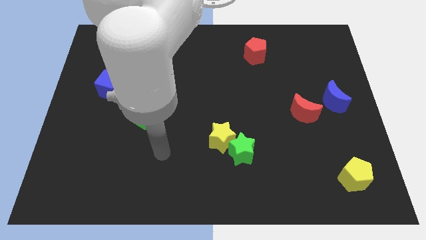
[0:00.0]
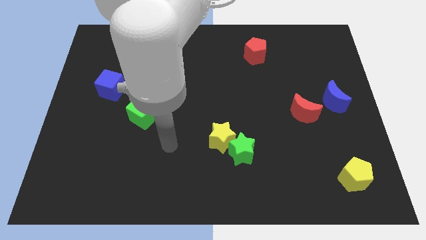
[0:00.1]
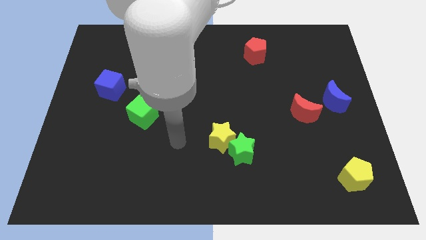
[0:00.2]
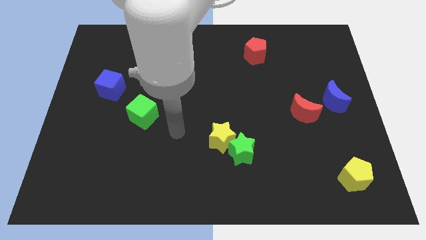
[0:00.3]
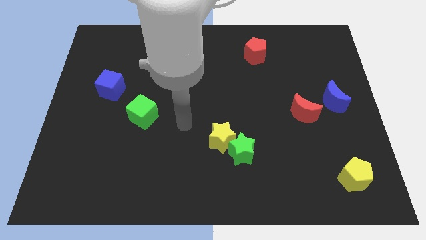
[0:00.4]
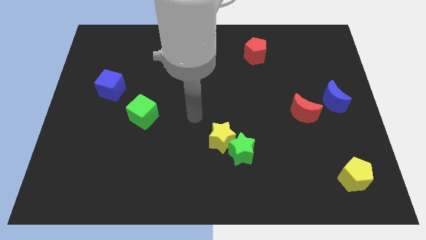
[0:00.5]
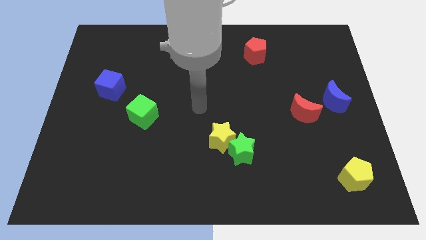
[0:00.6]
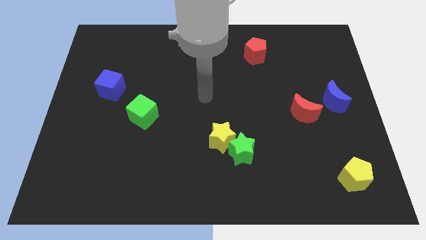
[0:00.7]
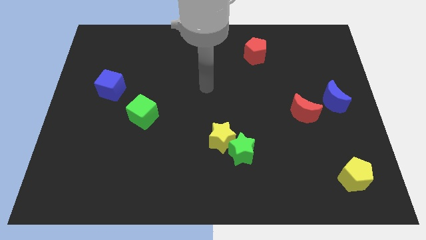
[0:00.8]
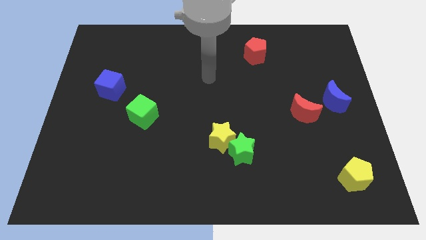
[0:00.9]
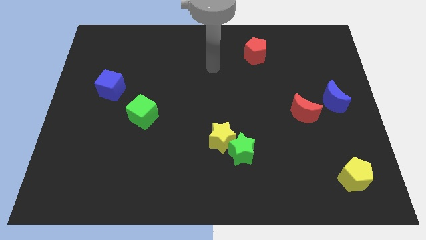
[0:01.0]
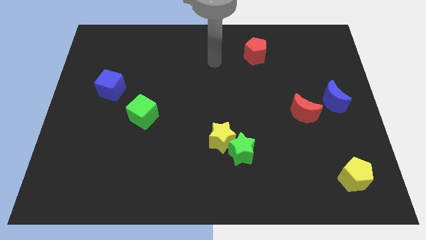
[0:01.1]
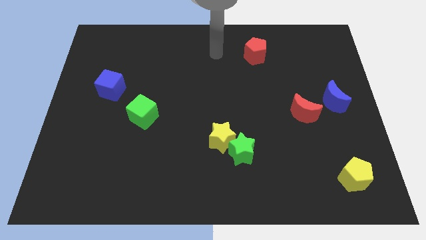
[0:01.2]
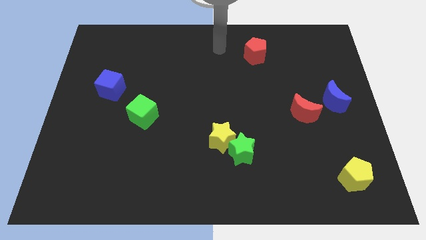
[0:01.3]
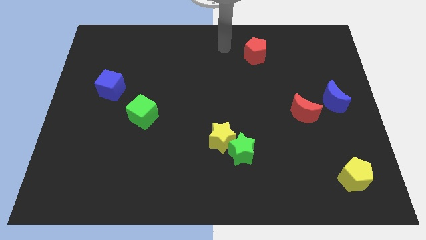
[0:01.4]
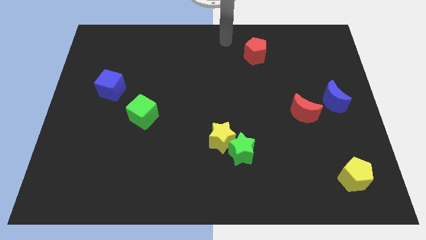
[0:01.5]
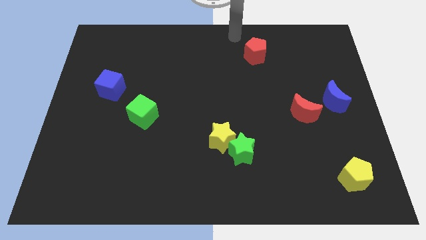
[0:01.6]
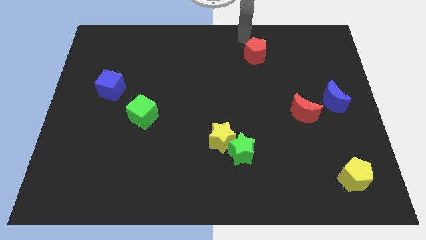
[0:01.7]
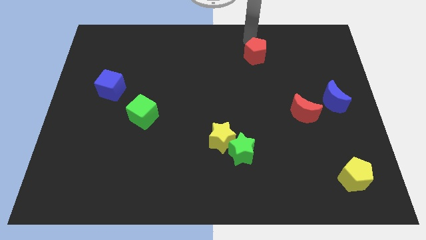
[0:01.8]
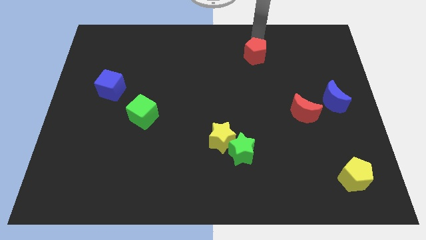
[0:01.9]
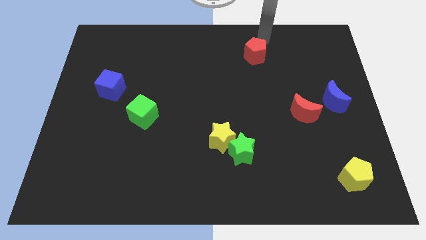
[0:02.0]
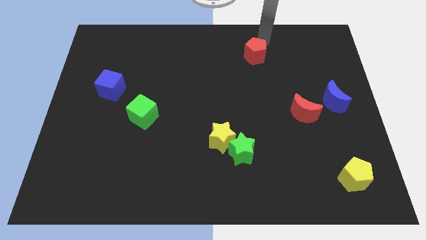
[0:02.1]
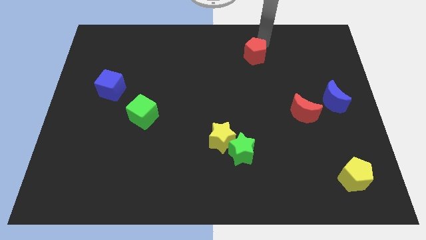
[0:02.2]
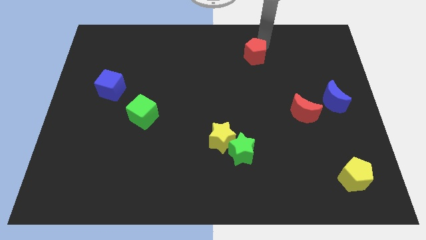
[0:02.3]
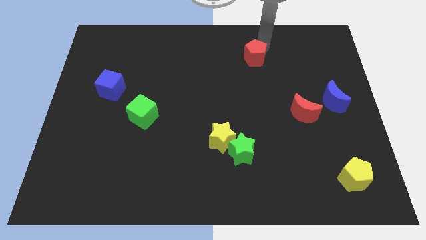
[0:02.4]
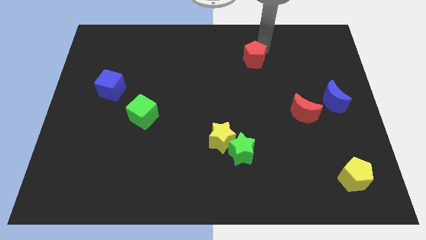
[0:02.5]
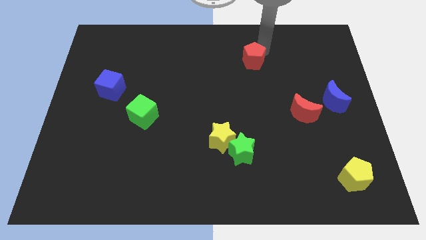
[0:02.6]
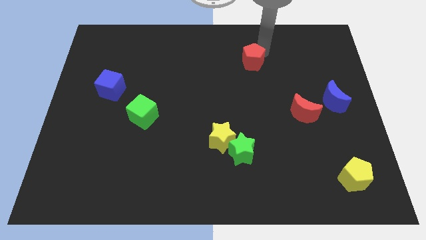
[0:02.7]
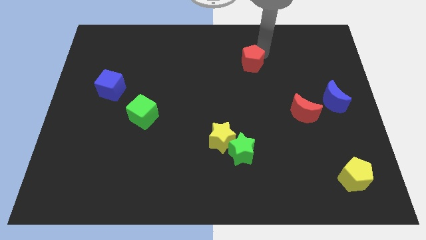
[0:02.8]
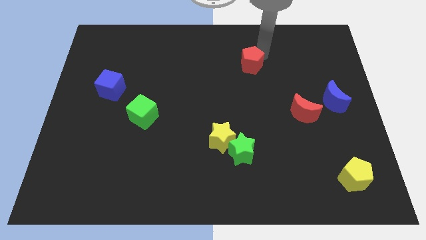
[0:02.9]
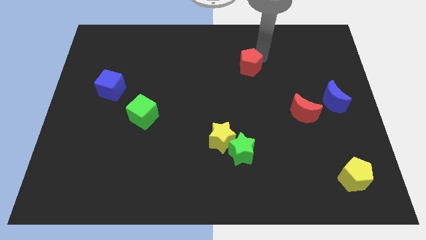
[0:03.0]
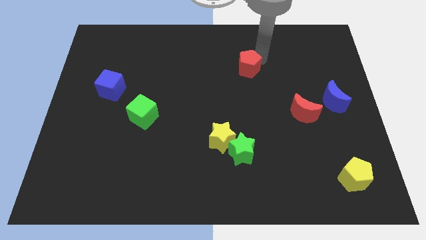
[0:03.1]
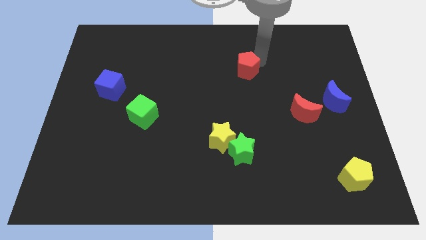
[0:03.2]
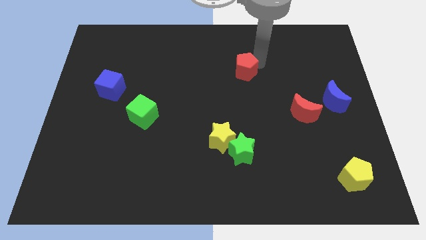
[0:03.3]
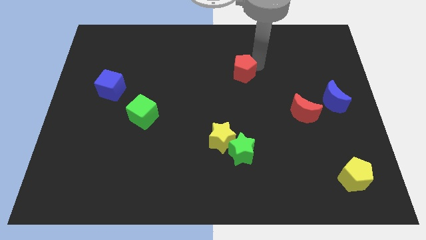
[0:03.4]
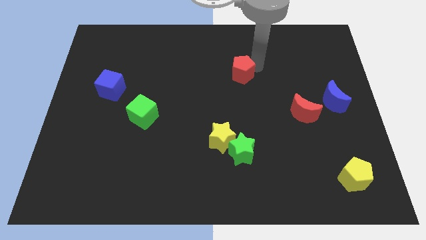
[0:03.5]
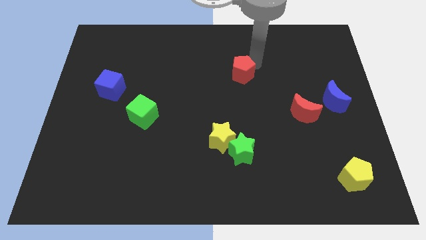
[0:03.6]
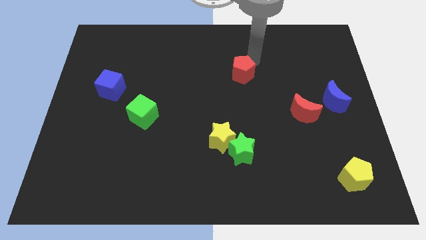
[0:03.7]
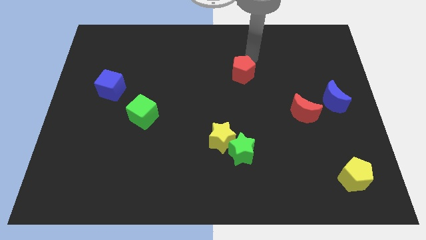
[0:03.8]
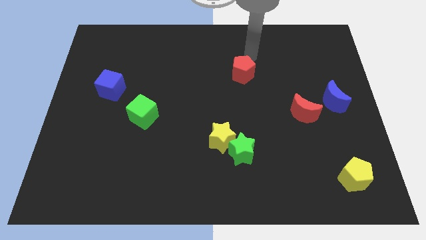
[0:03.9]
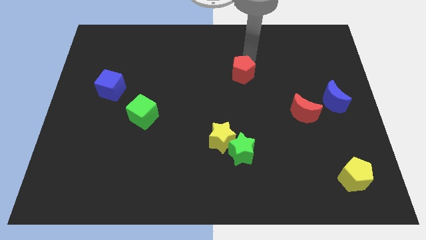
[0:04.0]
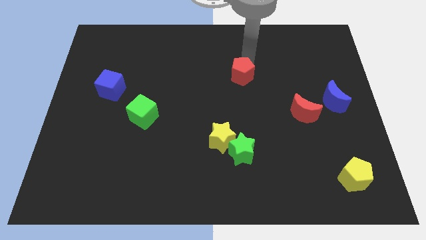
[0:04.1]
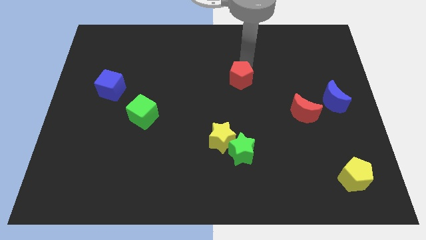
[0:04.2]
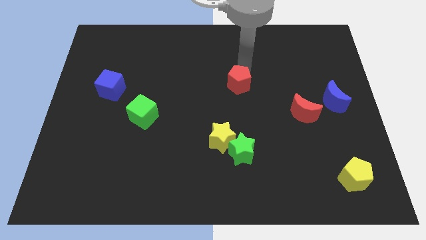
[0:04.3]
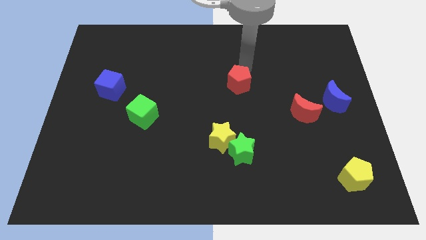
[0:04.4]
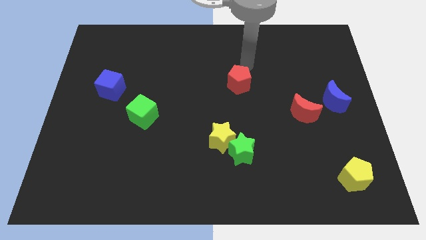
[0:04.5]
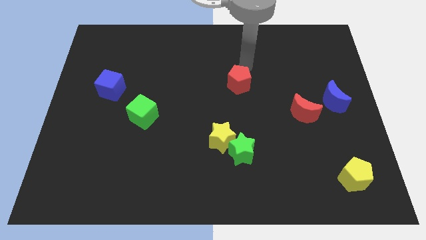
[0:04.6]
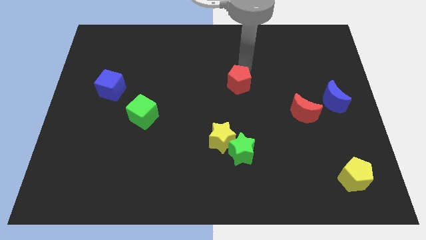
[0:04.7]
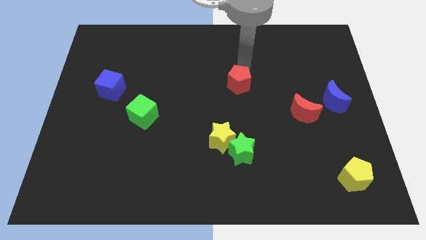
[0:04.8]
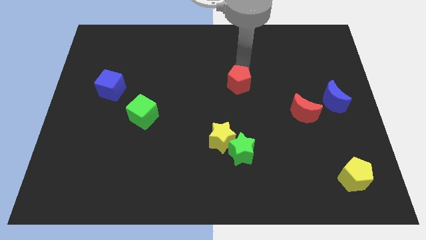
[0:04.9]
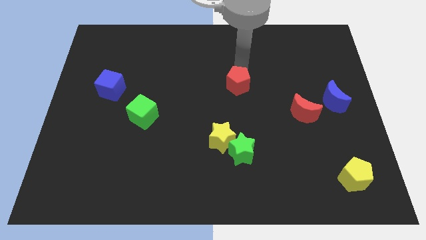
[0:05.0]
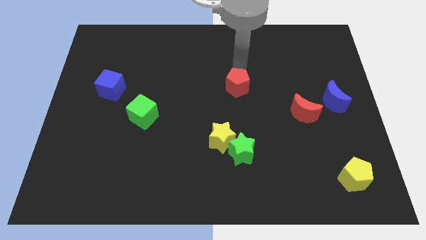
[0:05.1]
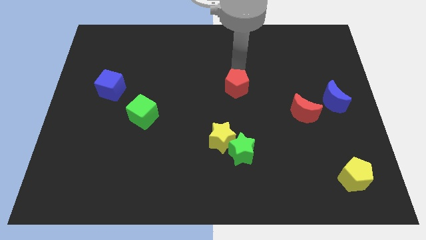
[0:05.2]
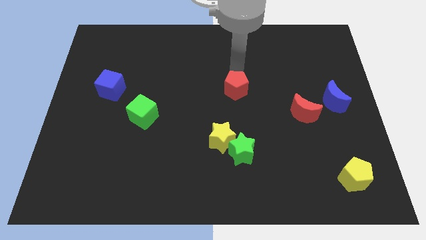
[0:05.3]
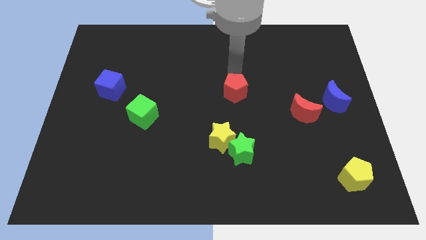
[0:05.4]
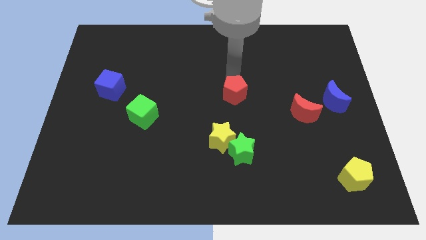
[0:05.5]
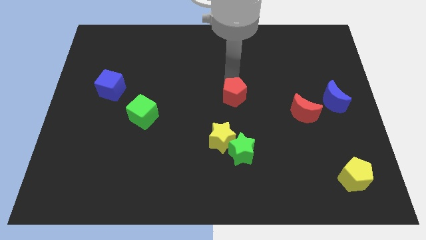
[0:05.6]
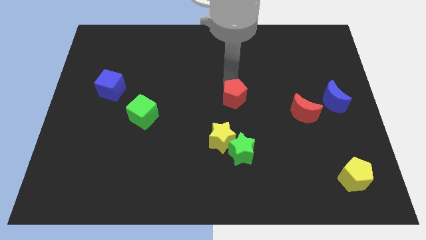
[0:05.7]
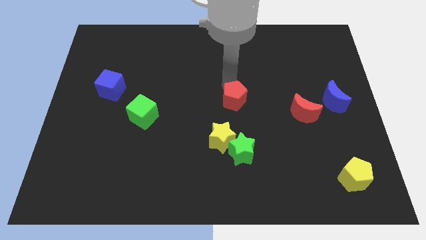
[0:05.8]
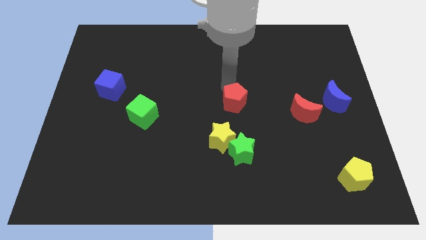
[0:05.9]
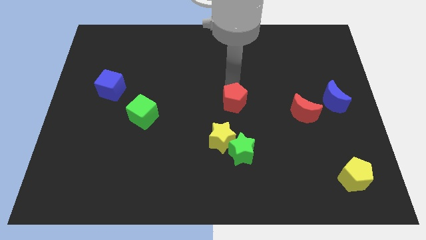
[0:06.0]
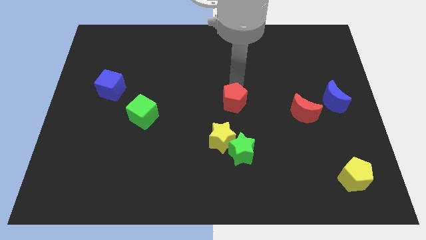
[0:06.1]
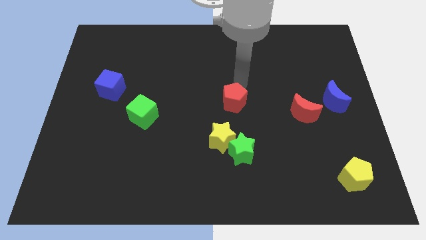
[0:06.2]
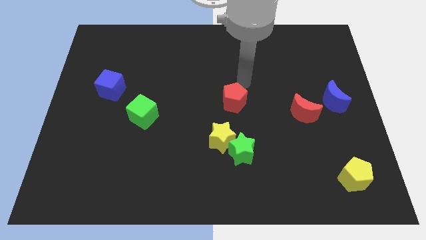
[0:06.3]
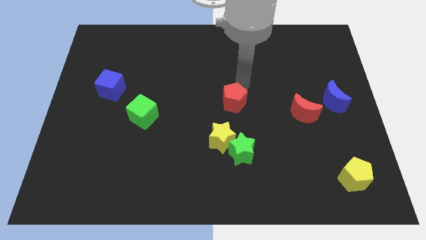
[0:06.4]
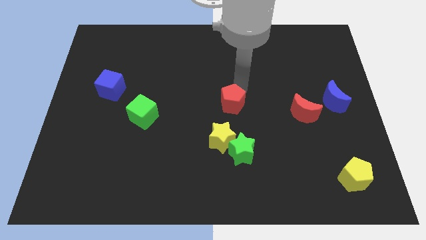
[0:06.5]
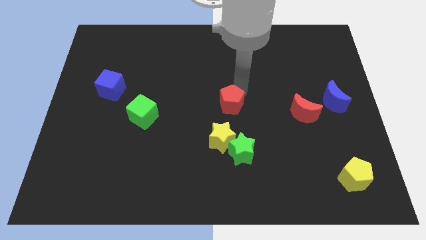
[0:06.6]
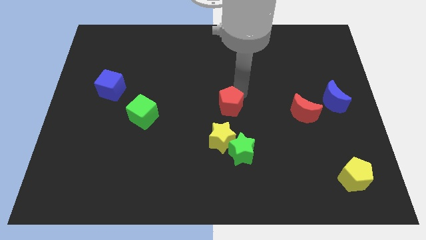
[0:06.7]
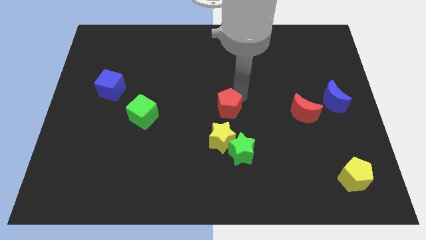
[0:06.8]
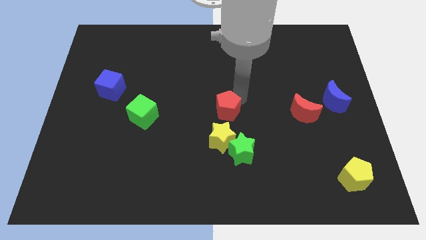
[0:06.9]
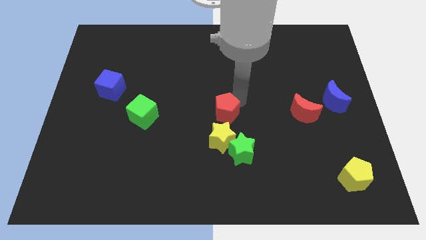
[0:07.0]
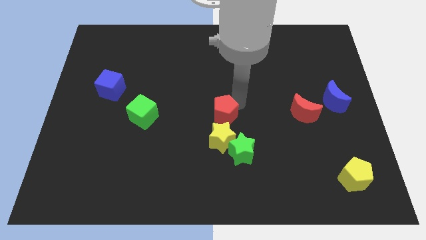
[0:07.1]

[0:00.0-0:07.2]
move the red pentagon to the top left side of the green star
